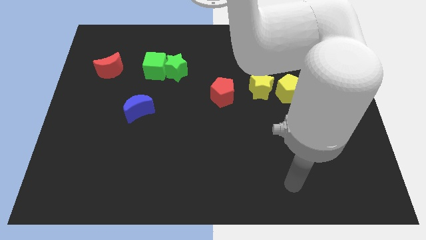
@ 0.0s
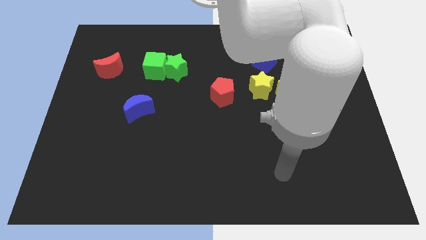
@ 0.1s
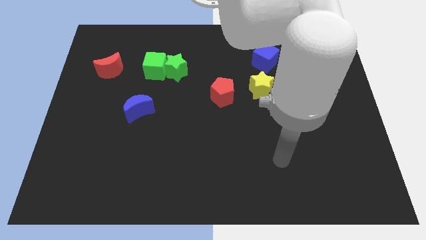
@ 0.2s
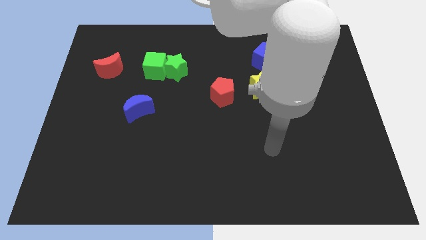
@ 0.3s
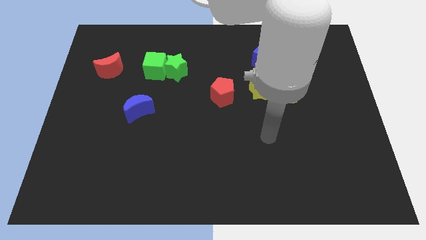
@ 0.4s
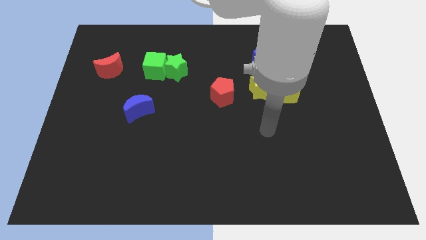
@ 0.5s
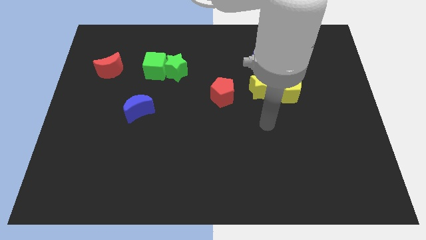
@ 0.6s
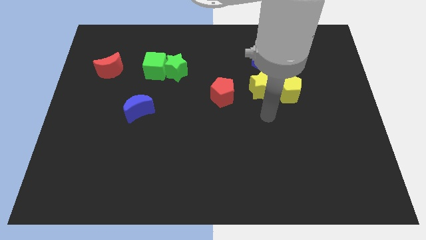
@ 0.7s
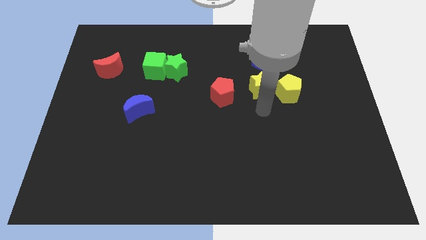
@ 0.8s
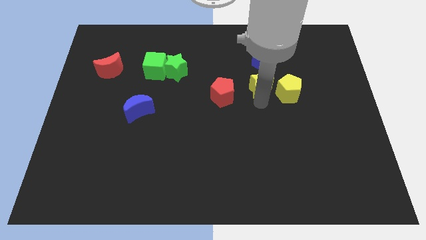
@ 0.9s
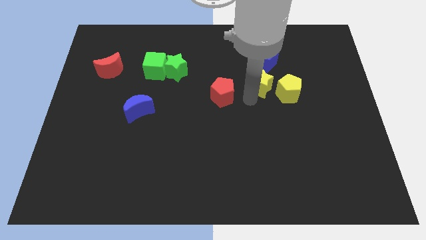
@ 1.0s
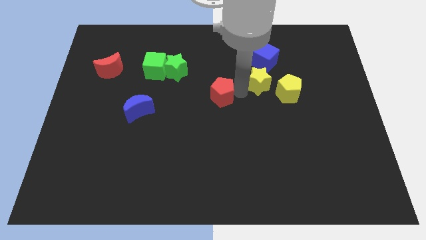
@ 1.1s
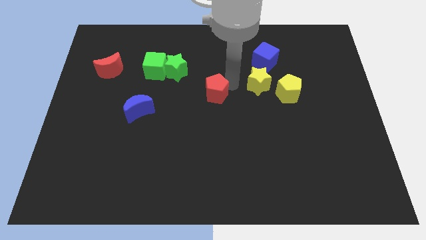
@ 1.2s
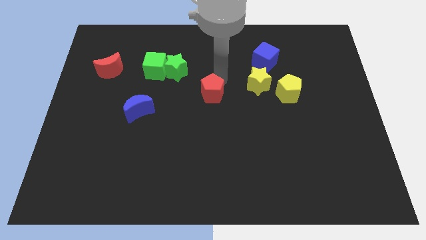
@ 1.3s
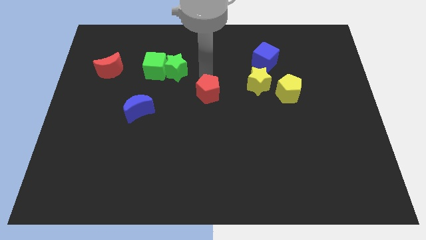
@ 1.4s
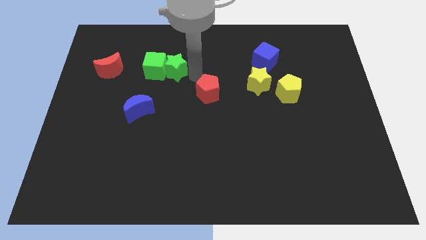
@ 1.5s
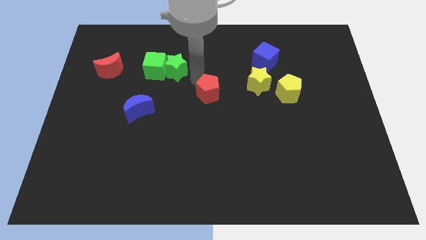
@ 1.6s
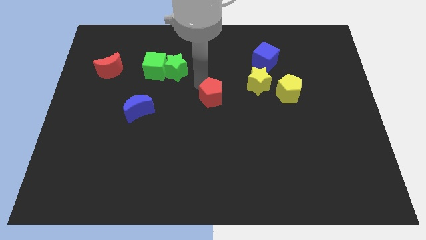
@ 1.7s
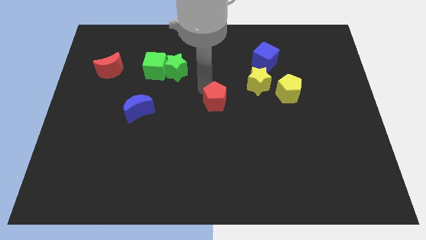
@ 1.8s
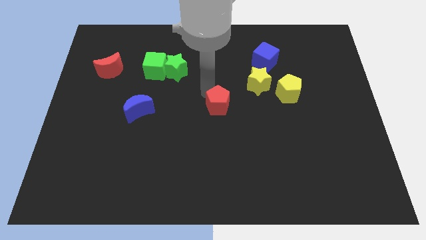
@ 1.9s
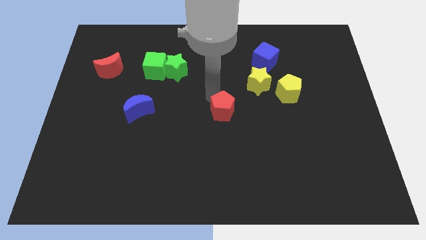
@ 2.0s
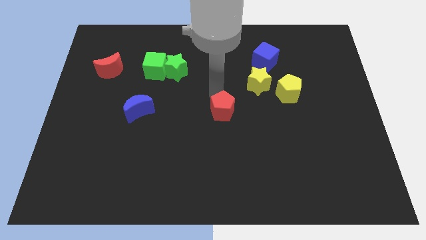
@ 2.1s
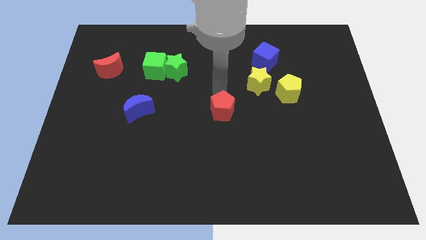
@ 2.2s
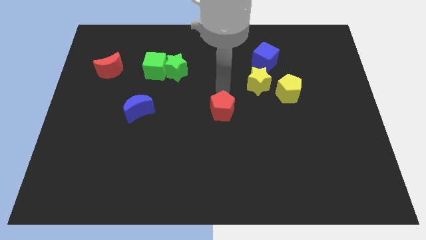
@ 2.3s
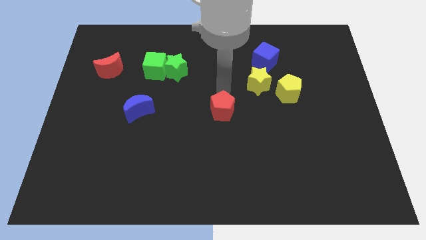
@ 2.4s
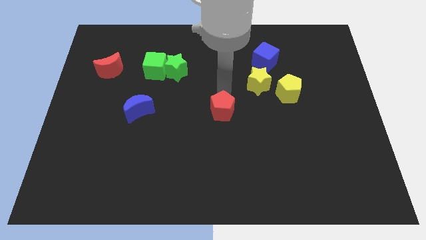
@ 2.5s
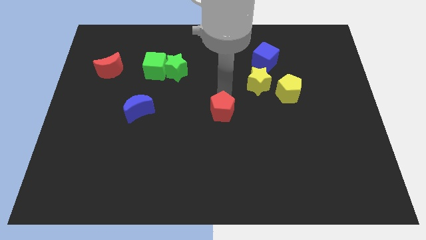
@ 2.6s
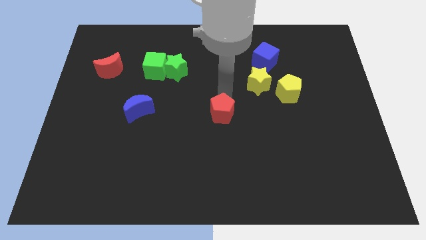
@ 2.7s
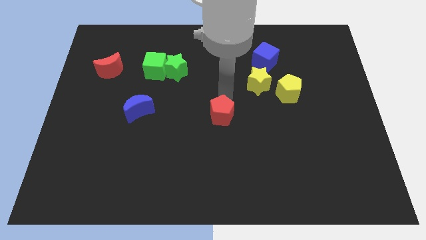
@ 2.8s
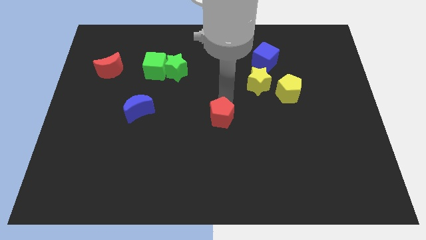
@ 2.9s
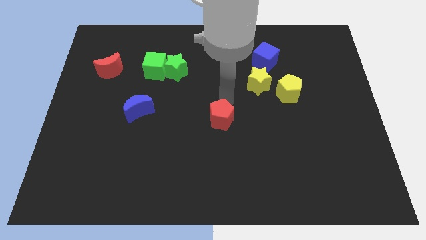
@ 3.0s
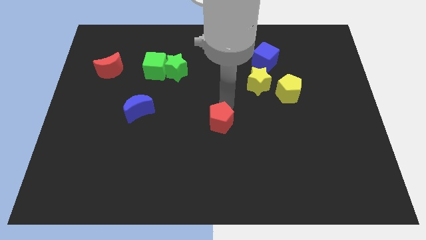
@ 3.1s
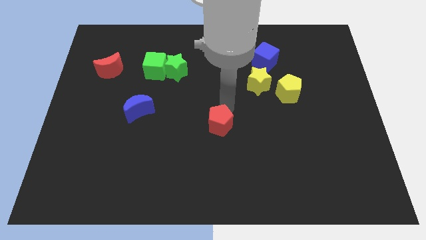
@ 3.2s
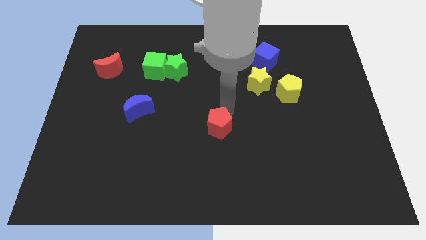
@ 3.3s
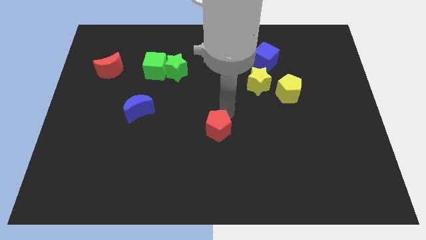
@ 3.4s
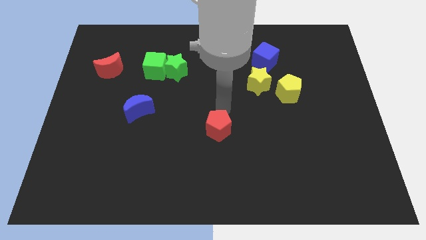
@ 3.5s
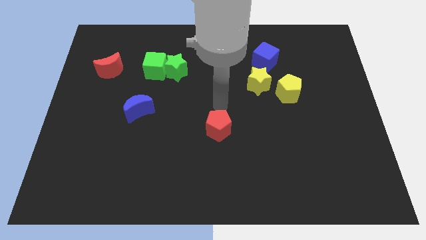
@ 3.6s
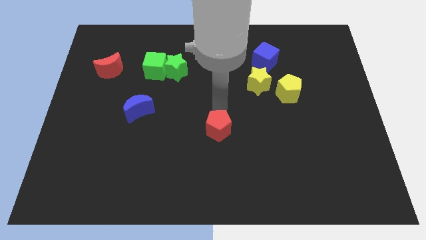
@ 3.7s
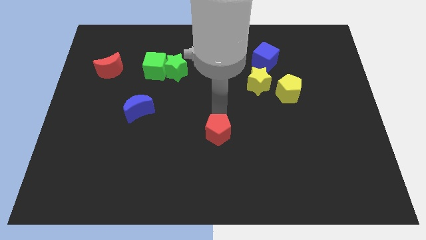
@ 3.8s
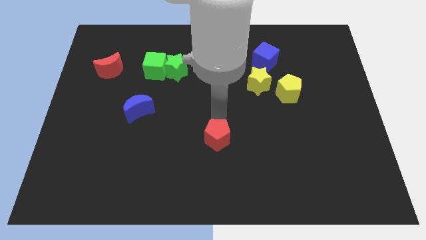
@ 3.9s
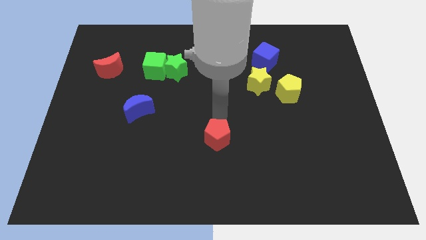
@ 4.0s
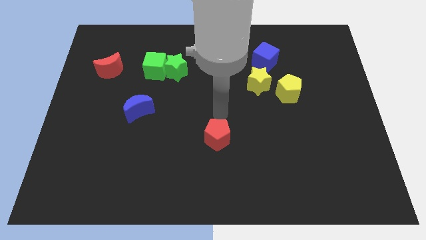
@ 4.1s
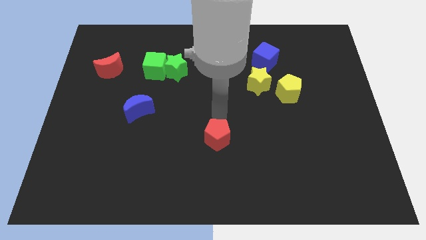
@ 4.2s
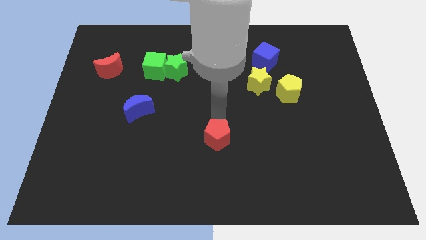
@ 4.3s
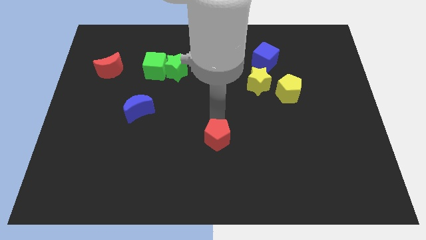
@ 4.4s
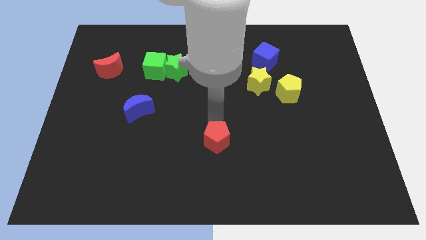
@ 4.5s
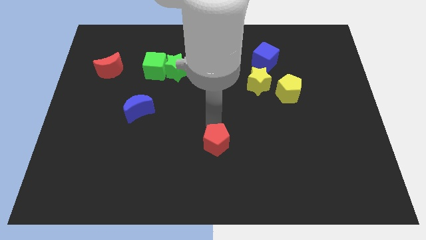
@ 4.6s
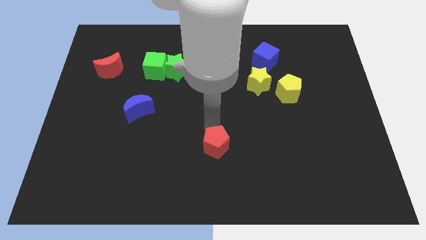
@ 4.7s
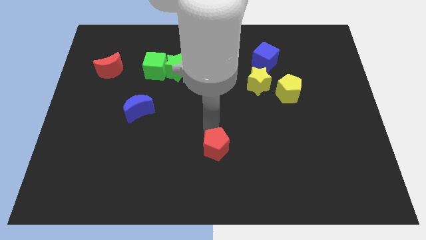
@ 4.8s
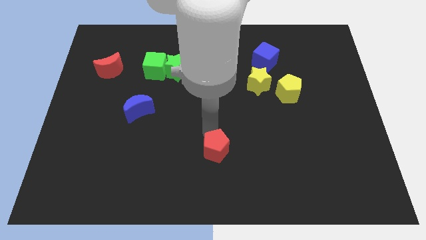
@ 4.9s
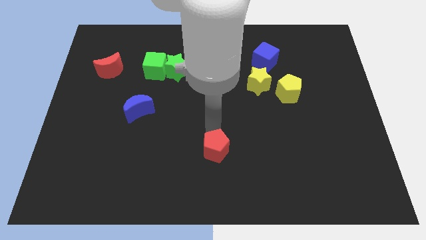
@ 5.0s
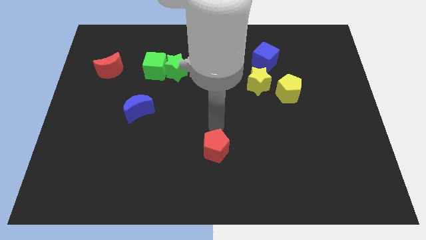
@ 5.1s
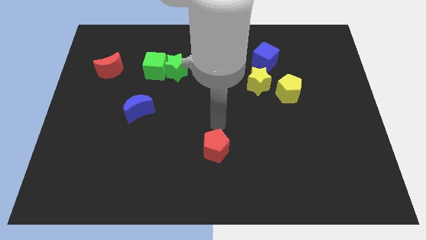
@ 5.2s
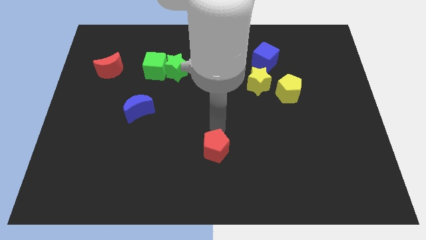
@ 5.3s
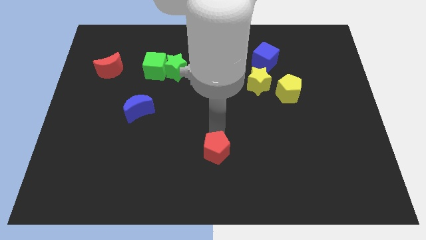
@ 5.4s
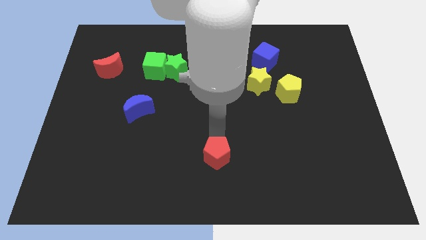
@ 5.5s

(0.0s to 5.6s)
slide the red pentagon to the bottom side

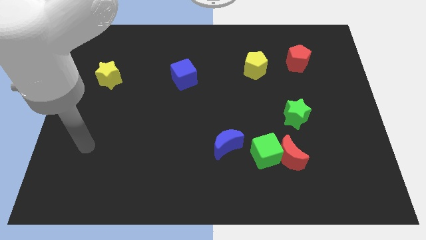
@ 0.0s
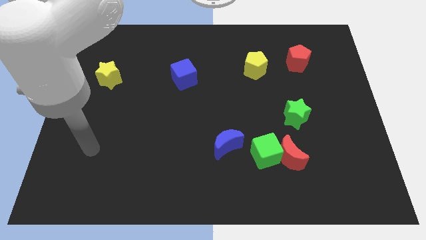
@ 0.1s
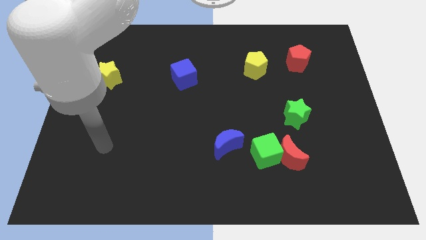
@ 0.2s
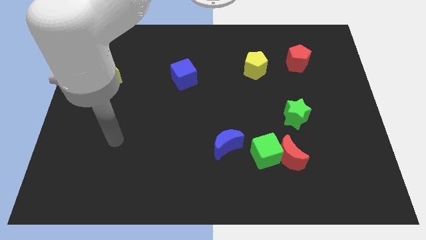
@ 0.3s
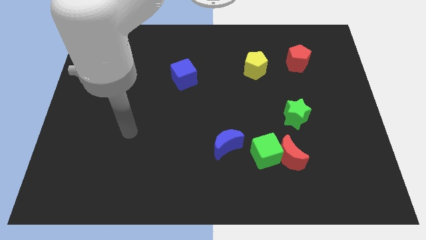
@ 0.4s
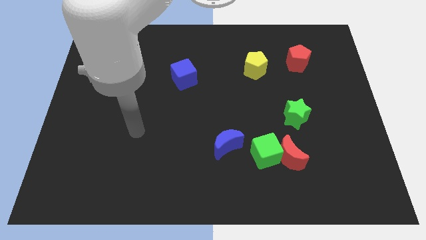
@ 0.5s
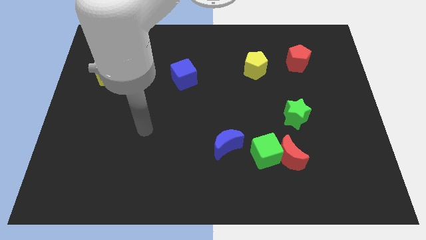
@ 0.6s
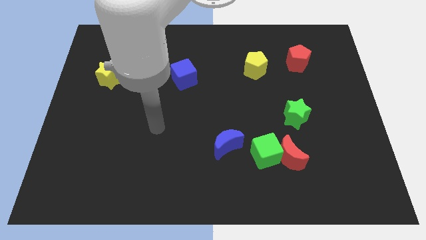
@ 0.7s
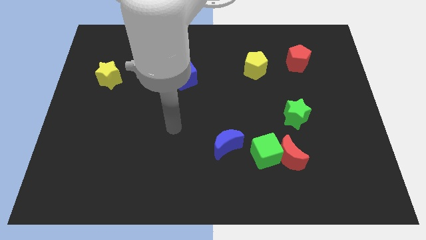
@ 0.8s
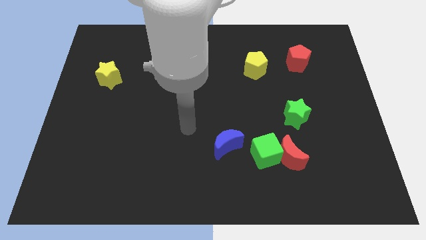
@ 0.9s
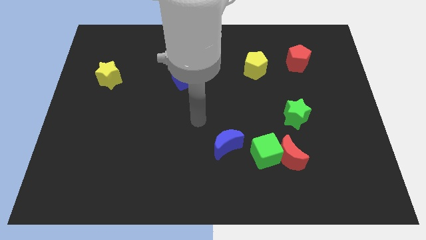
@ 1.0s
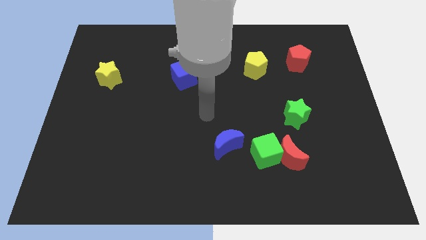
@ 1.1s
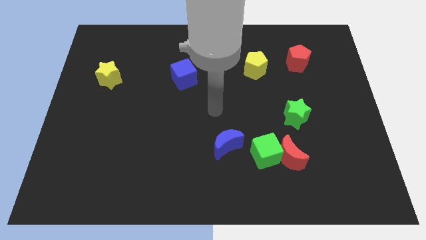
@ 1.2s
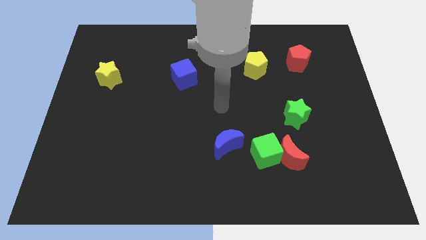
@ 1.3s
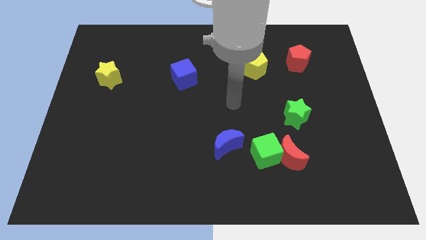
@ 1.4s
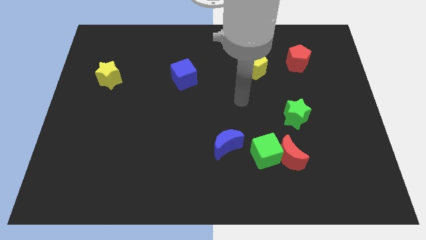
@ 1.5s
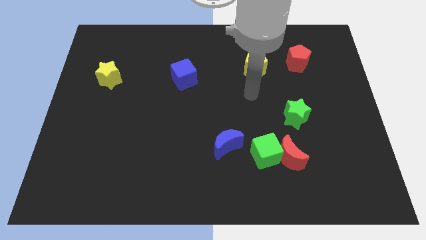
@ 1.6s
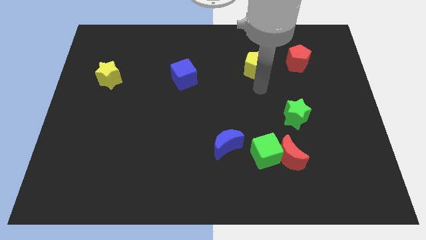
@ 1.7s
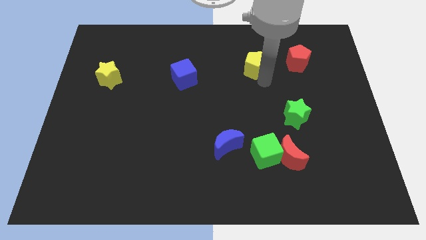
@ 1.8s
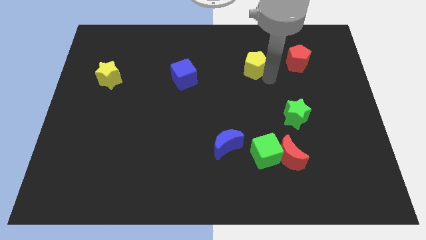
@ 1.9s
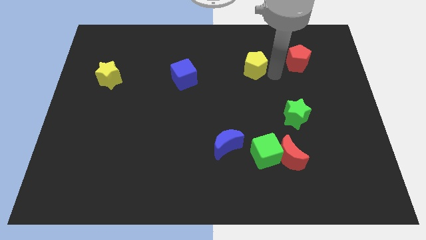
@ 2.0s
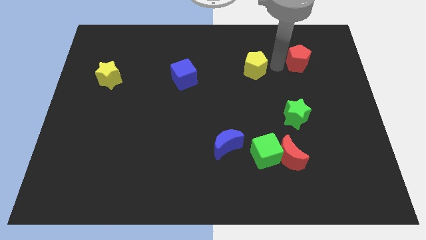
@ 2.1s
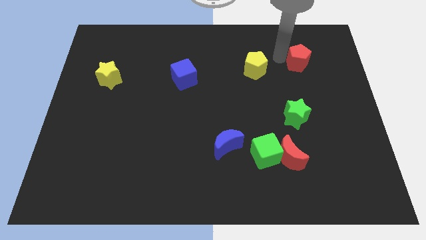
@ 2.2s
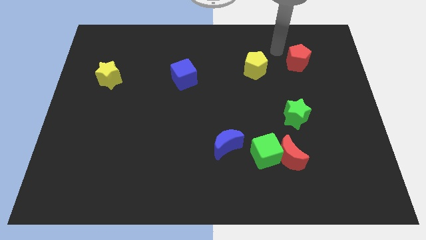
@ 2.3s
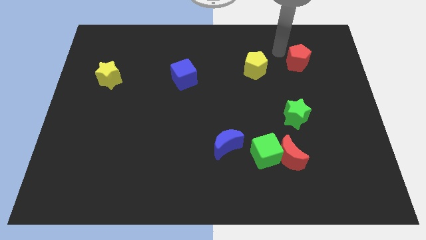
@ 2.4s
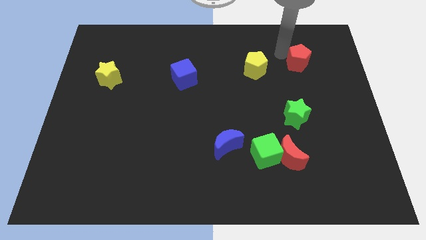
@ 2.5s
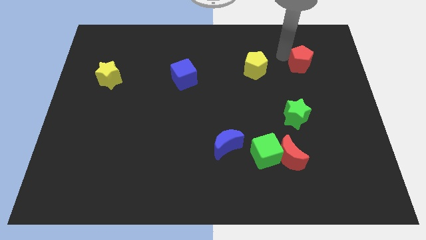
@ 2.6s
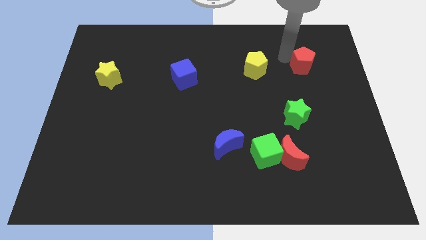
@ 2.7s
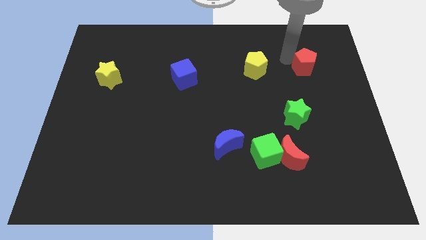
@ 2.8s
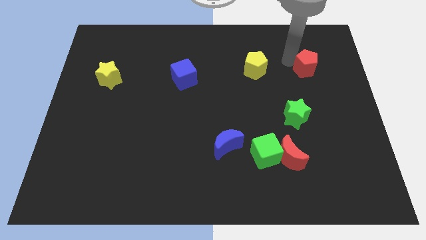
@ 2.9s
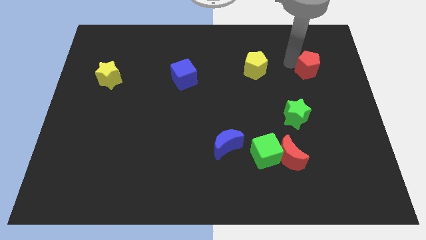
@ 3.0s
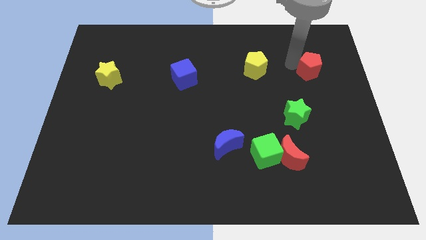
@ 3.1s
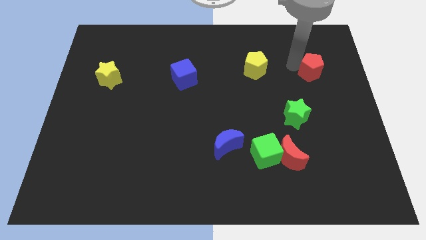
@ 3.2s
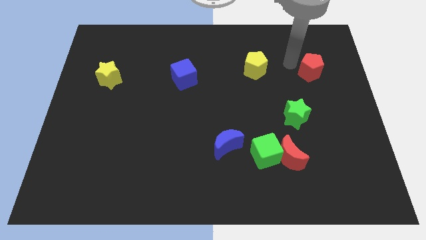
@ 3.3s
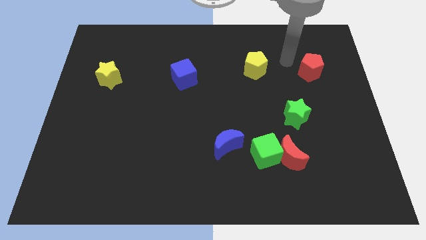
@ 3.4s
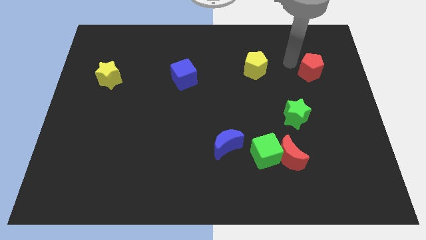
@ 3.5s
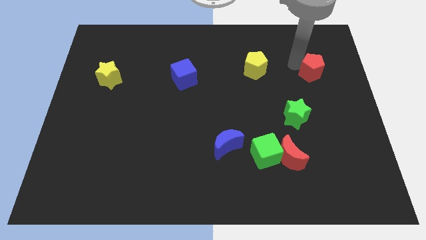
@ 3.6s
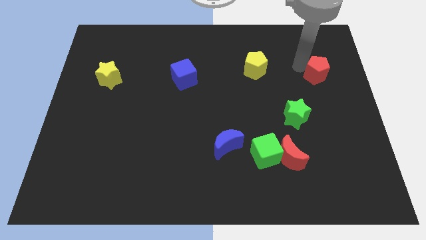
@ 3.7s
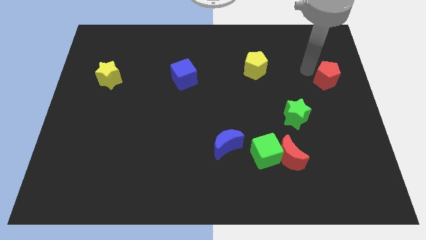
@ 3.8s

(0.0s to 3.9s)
put the red pentagon to the right side
